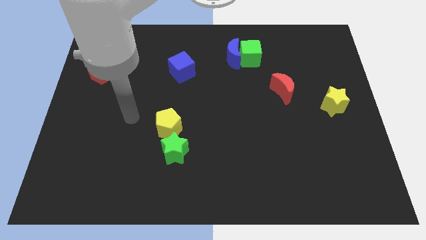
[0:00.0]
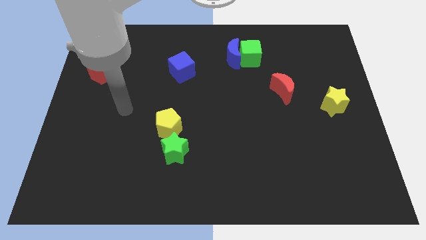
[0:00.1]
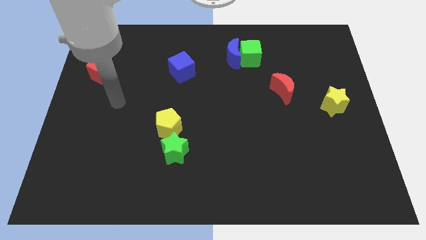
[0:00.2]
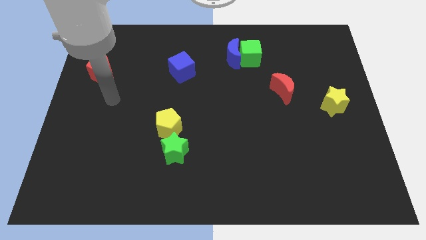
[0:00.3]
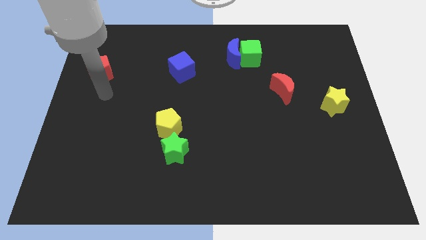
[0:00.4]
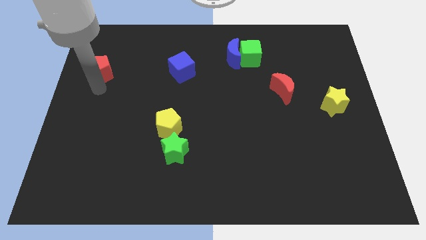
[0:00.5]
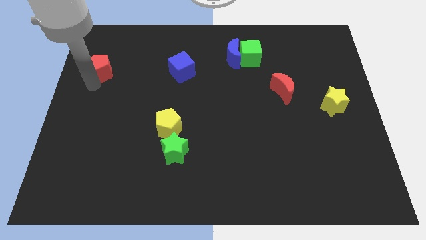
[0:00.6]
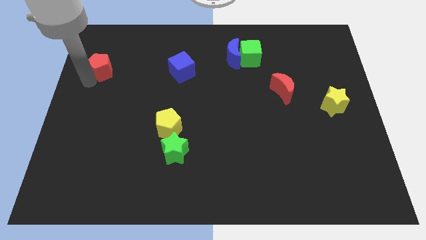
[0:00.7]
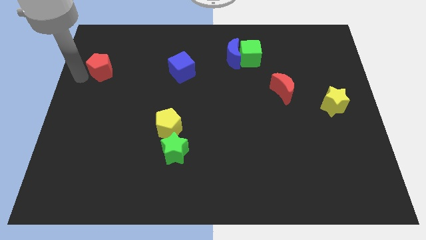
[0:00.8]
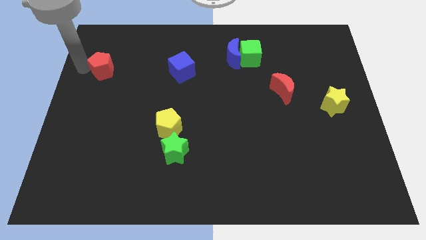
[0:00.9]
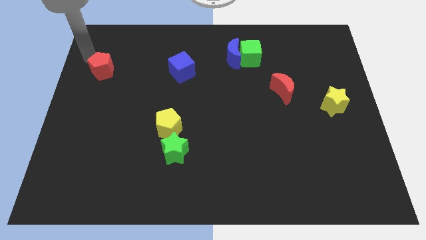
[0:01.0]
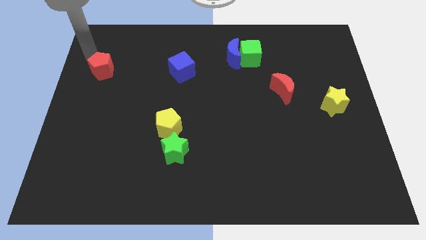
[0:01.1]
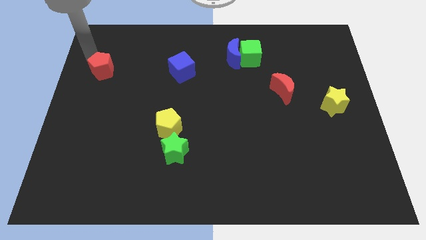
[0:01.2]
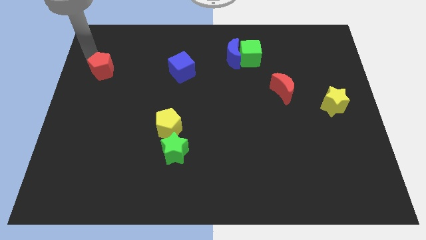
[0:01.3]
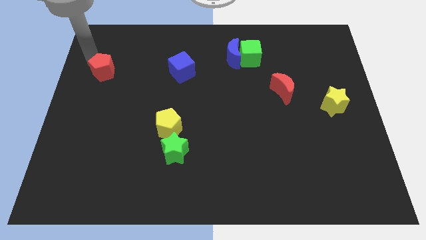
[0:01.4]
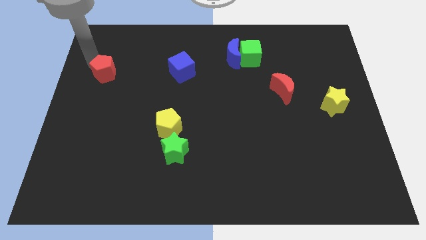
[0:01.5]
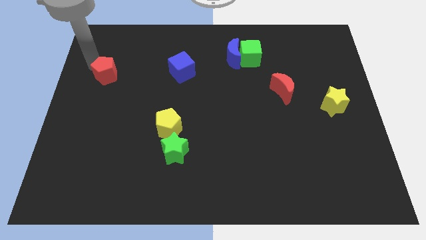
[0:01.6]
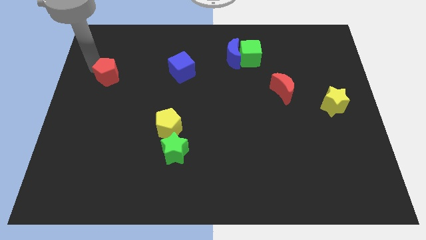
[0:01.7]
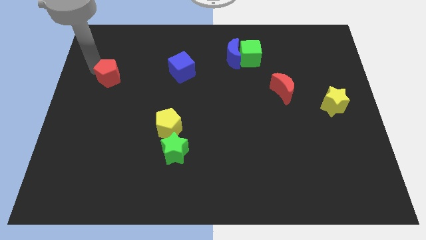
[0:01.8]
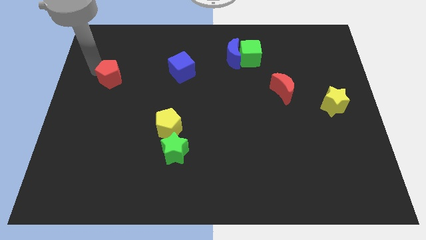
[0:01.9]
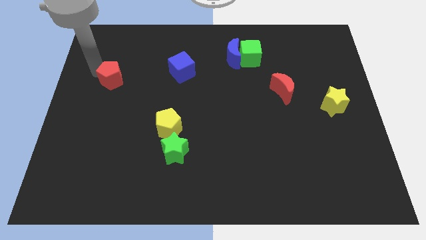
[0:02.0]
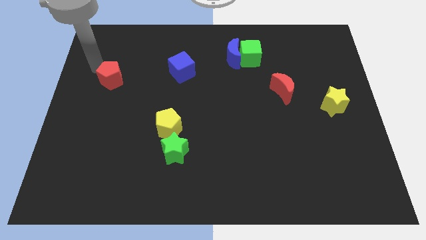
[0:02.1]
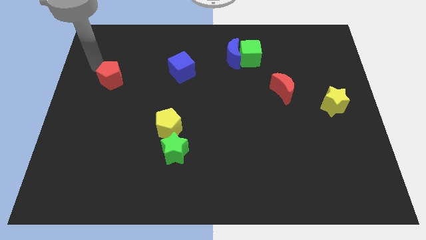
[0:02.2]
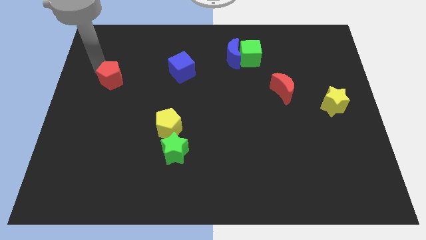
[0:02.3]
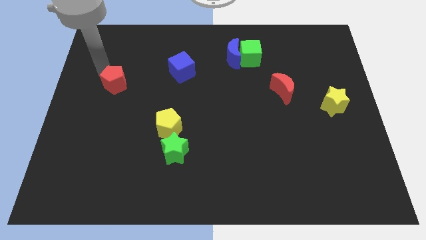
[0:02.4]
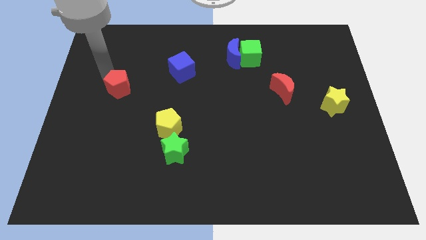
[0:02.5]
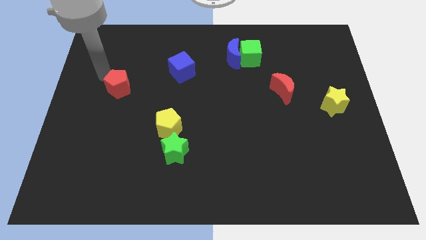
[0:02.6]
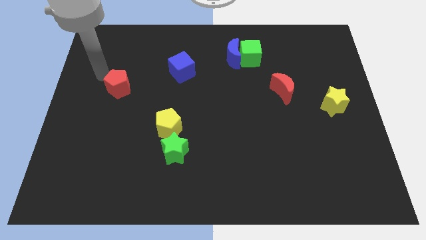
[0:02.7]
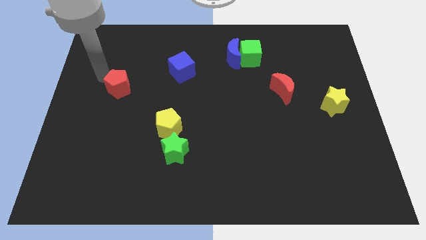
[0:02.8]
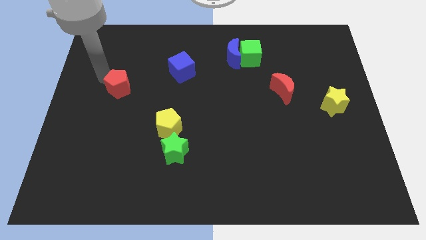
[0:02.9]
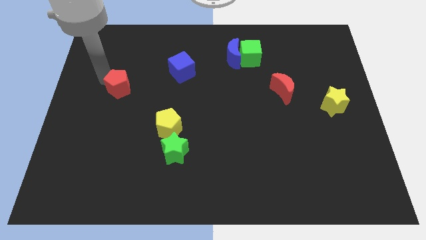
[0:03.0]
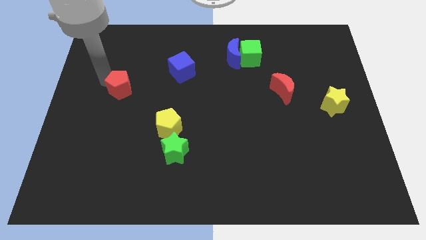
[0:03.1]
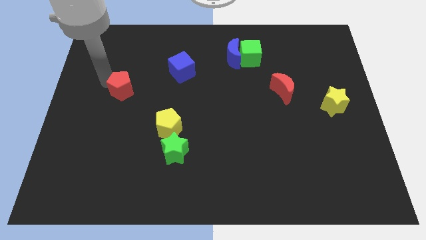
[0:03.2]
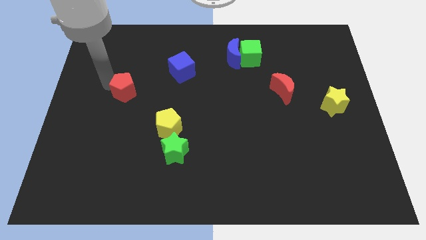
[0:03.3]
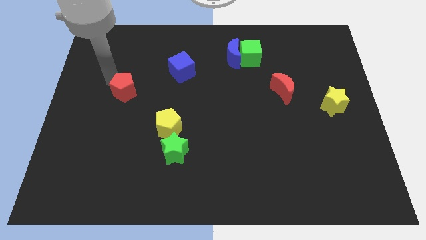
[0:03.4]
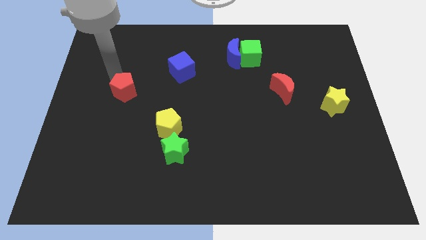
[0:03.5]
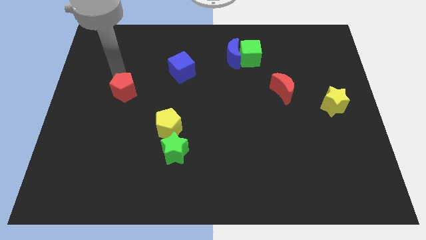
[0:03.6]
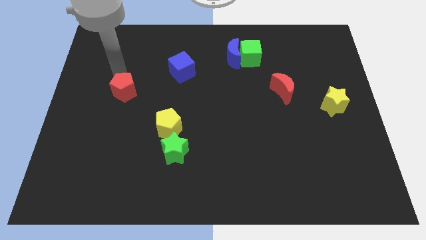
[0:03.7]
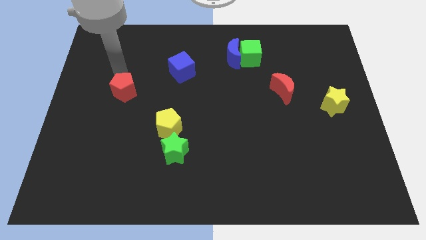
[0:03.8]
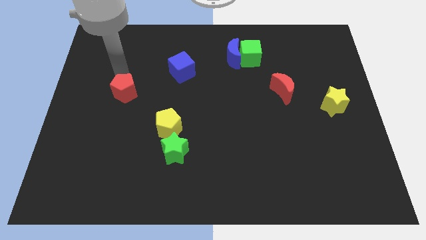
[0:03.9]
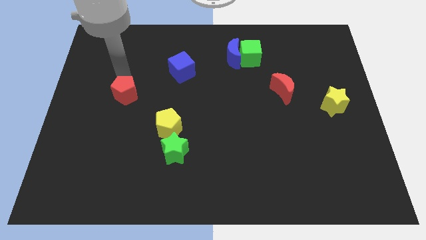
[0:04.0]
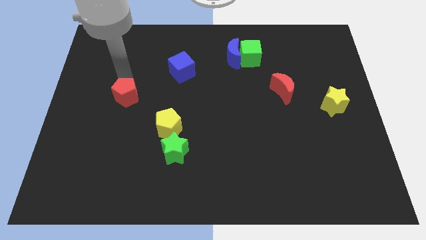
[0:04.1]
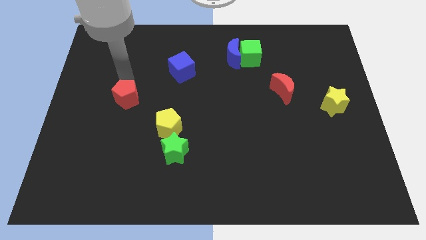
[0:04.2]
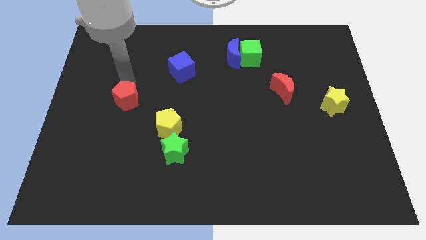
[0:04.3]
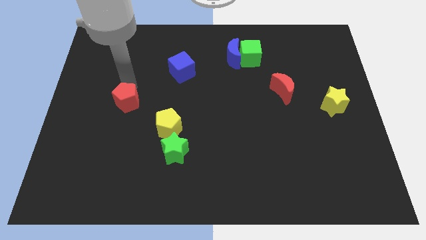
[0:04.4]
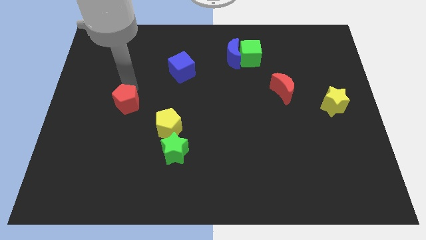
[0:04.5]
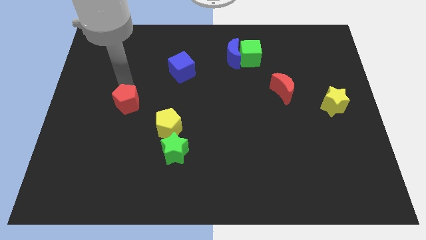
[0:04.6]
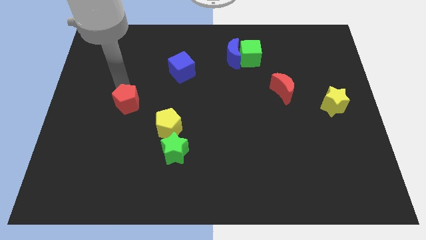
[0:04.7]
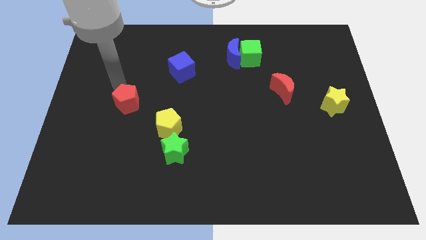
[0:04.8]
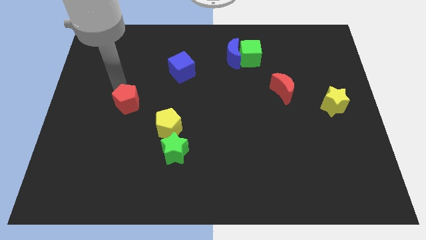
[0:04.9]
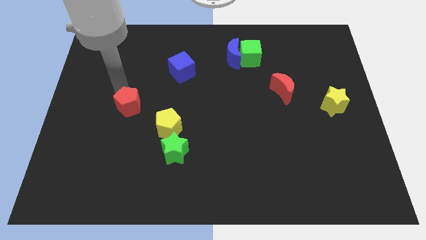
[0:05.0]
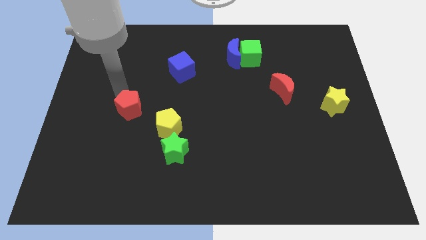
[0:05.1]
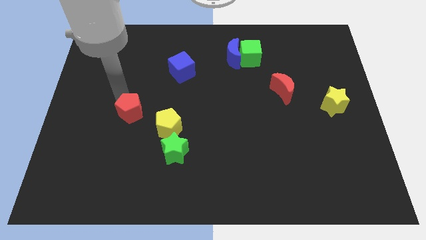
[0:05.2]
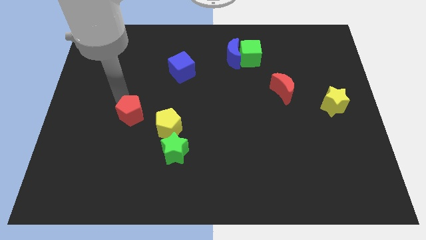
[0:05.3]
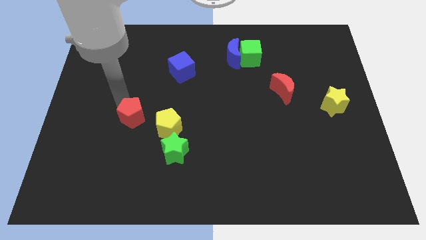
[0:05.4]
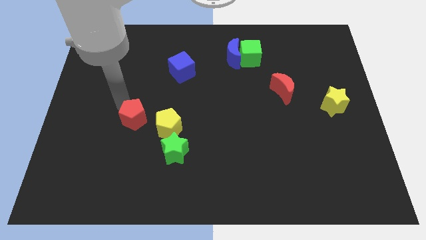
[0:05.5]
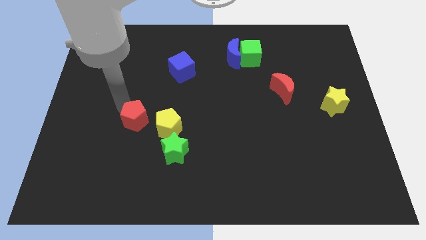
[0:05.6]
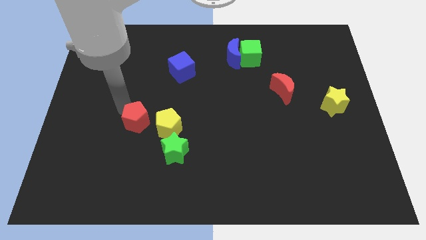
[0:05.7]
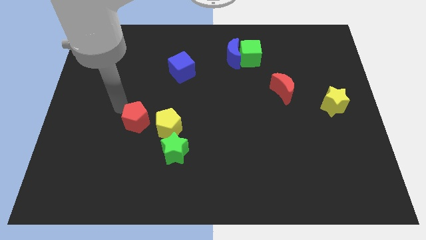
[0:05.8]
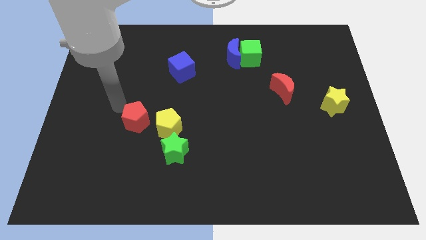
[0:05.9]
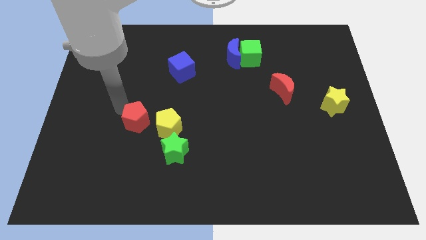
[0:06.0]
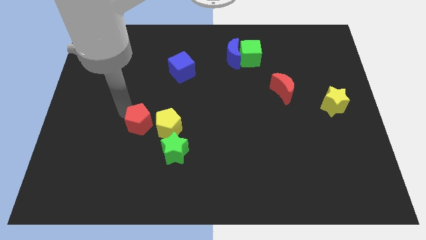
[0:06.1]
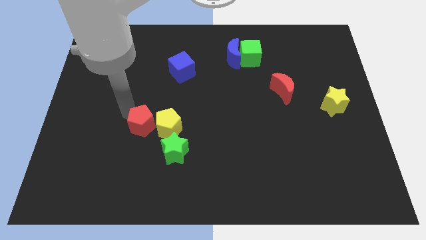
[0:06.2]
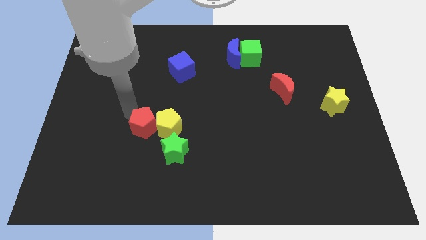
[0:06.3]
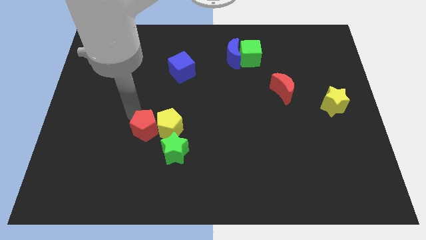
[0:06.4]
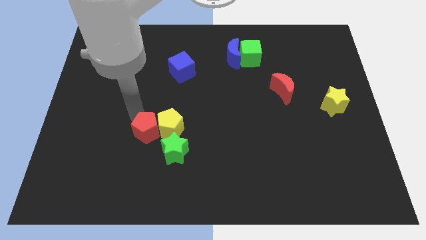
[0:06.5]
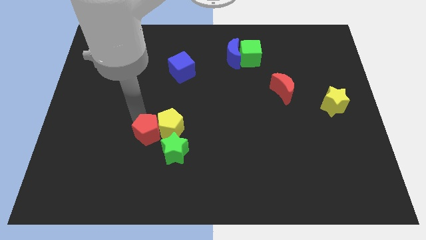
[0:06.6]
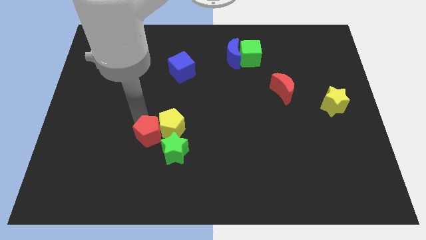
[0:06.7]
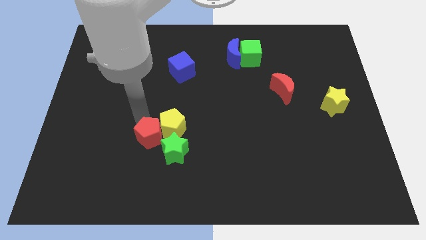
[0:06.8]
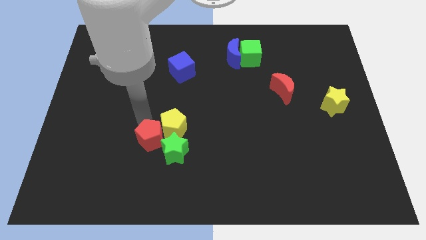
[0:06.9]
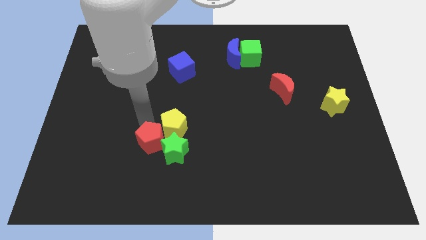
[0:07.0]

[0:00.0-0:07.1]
push the red pentagon below the yellow pentagon

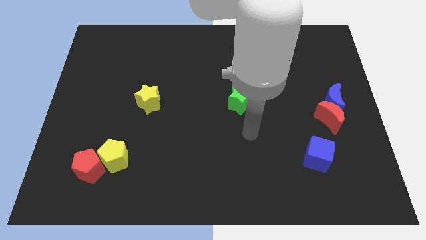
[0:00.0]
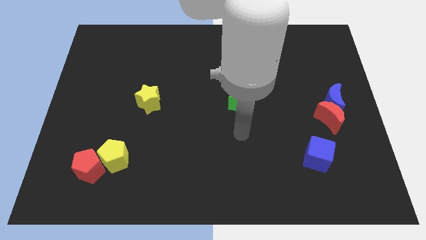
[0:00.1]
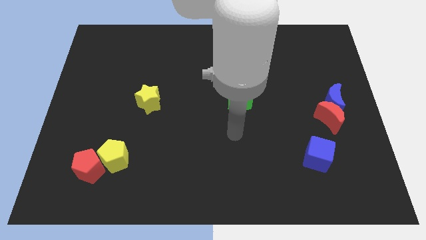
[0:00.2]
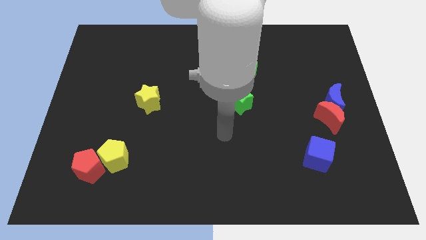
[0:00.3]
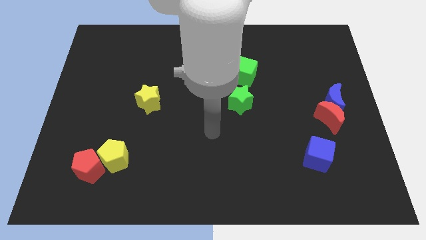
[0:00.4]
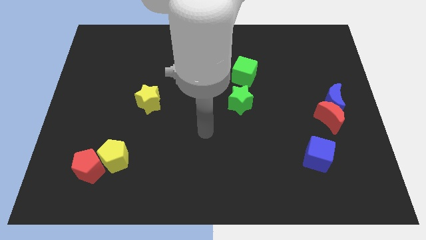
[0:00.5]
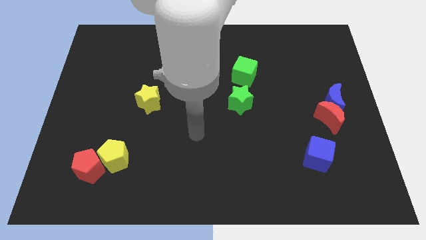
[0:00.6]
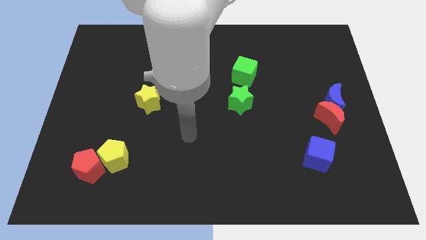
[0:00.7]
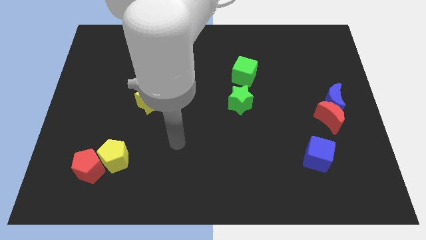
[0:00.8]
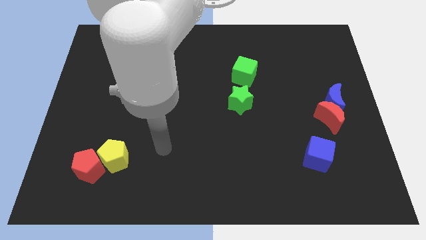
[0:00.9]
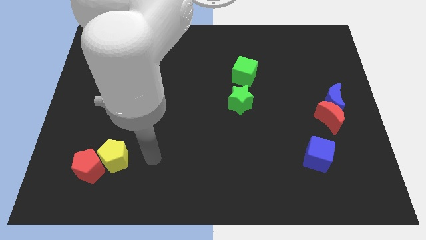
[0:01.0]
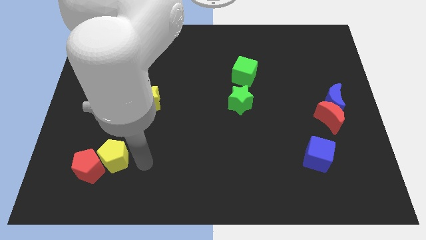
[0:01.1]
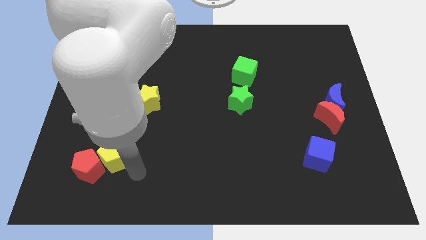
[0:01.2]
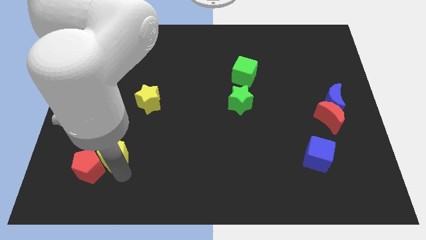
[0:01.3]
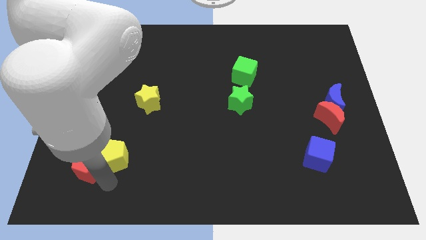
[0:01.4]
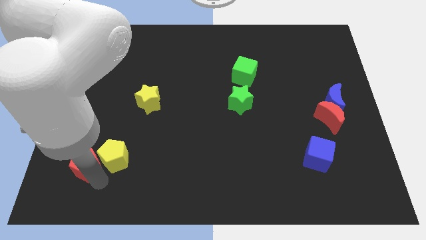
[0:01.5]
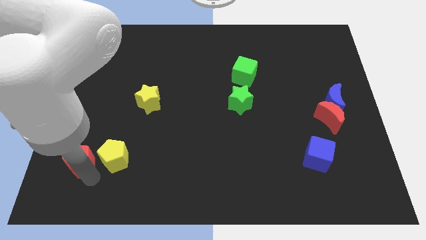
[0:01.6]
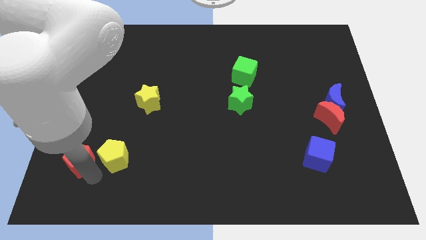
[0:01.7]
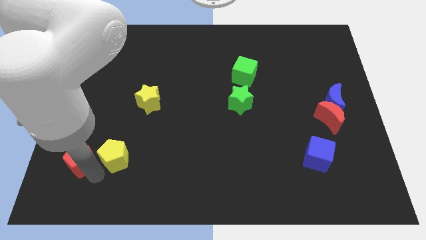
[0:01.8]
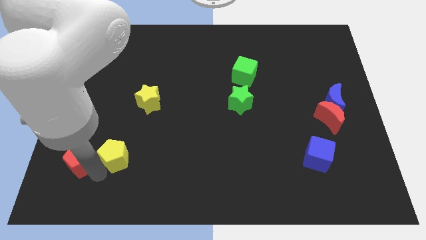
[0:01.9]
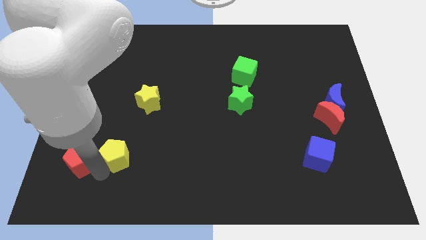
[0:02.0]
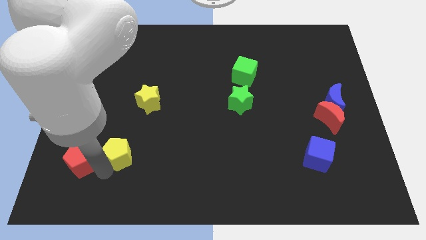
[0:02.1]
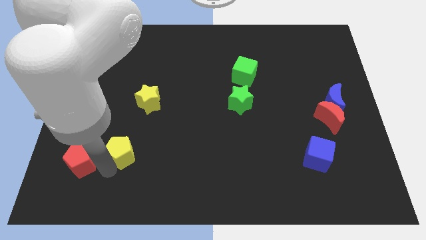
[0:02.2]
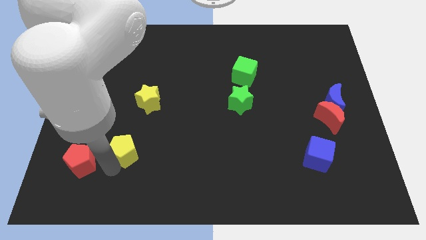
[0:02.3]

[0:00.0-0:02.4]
push the yellow pentagon to the bottom of the yellow star
